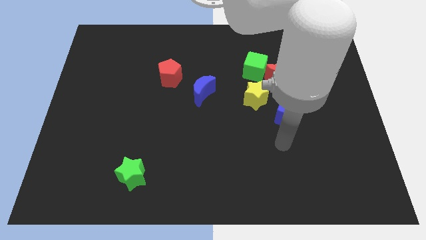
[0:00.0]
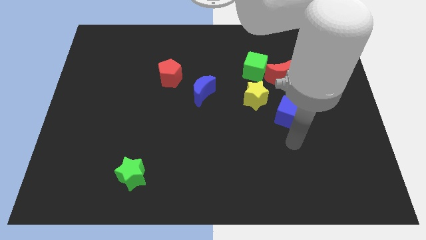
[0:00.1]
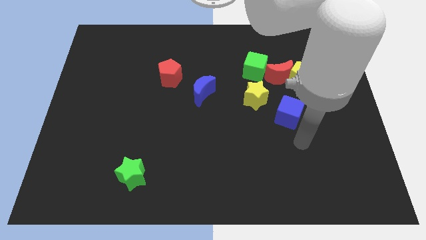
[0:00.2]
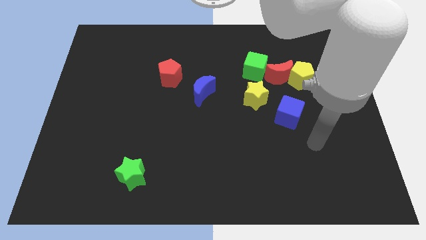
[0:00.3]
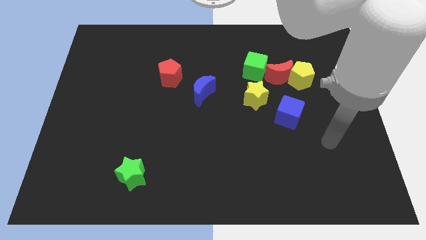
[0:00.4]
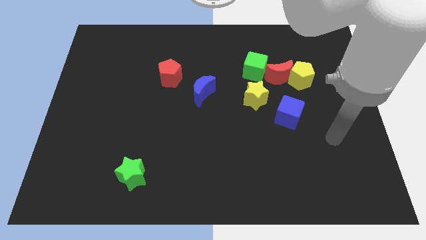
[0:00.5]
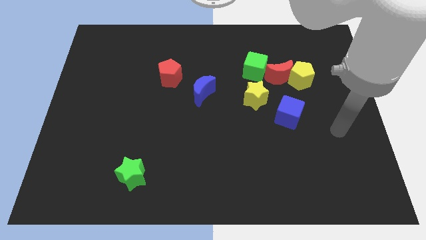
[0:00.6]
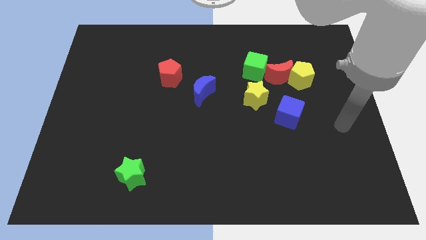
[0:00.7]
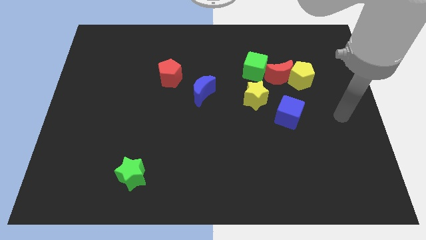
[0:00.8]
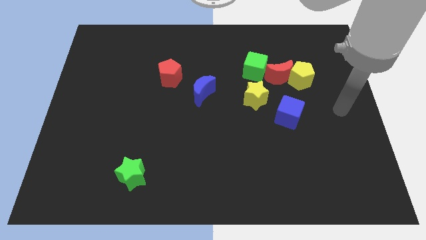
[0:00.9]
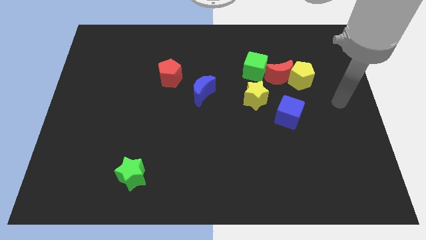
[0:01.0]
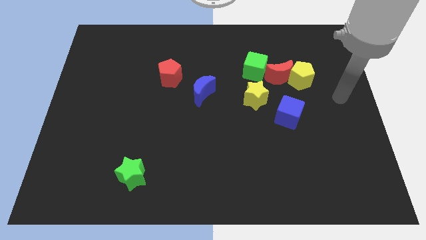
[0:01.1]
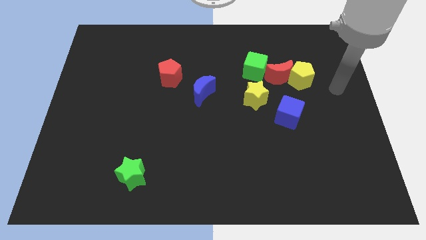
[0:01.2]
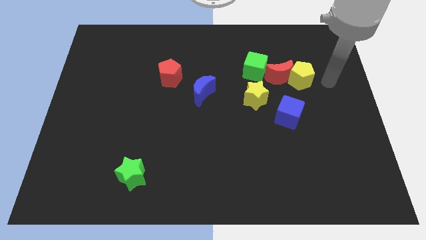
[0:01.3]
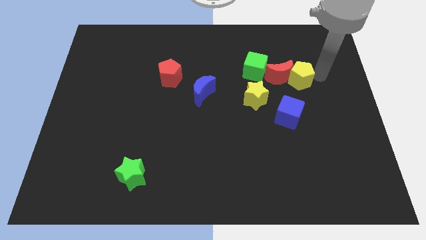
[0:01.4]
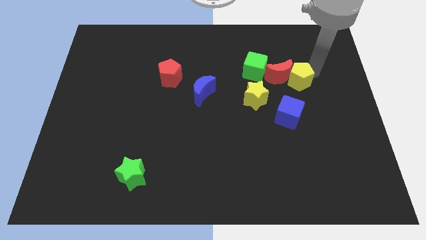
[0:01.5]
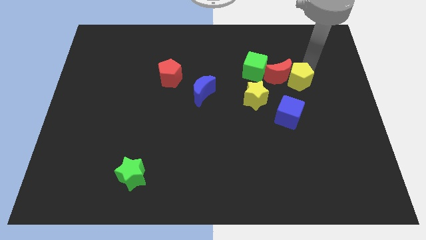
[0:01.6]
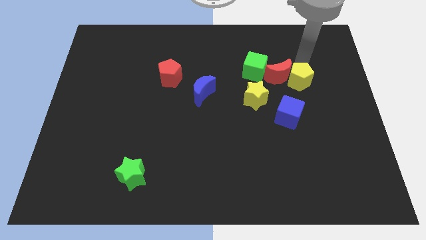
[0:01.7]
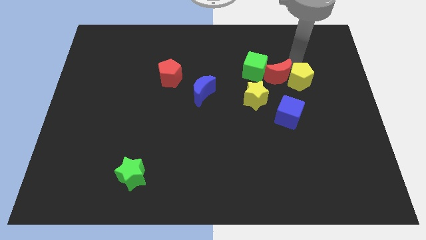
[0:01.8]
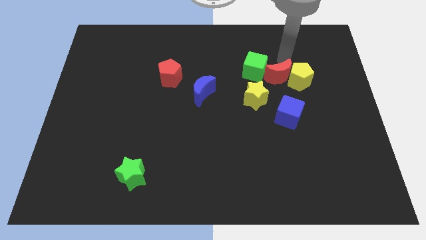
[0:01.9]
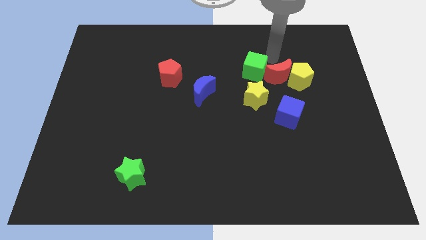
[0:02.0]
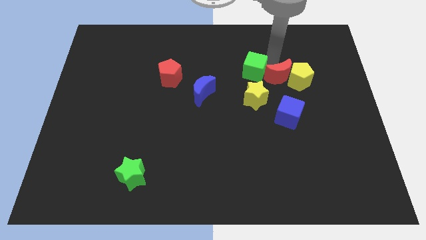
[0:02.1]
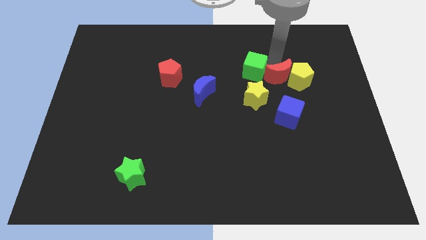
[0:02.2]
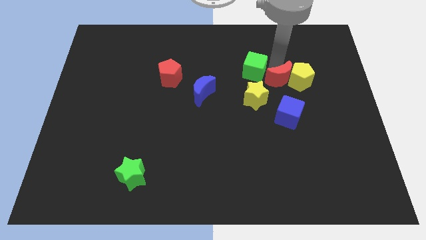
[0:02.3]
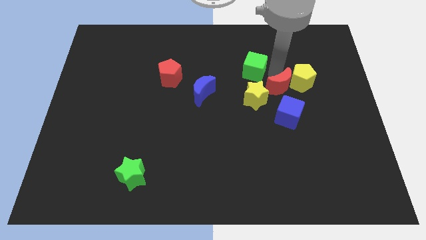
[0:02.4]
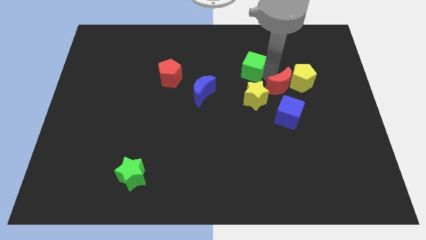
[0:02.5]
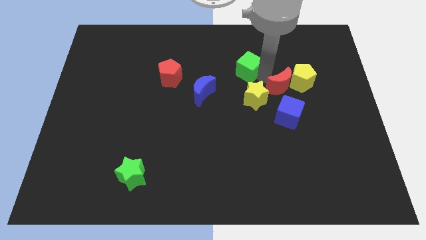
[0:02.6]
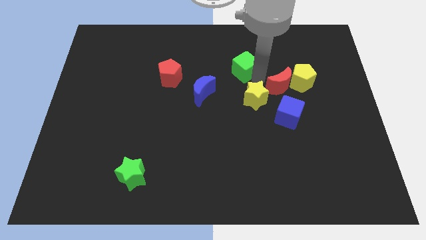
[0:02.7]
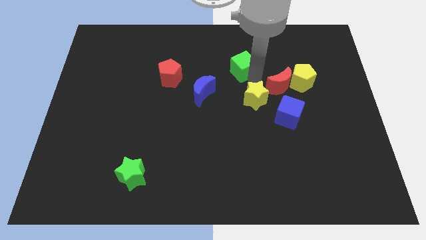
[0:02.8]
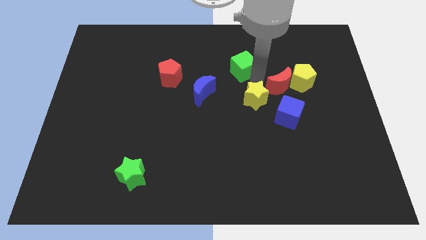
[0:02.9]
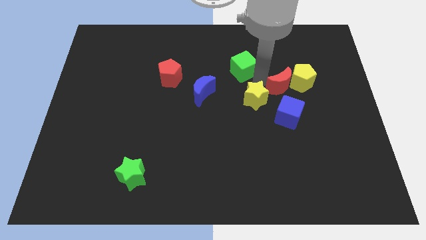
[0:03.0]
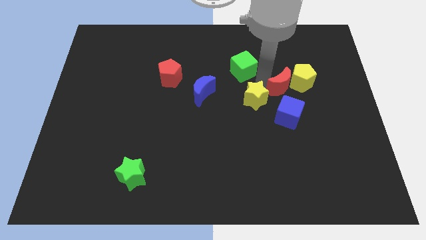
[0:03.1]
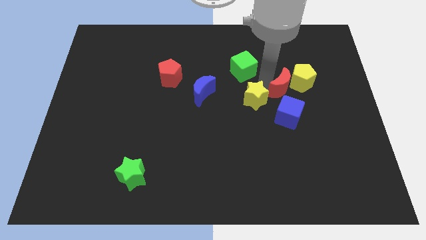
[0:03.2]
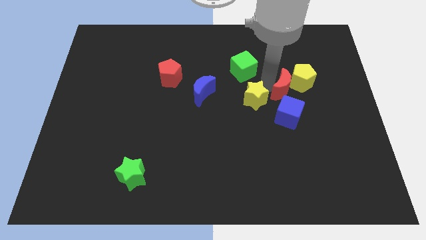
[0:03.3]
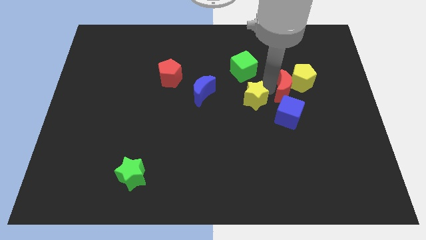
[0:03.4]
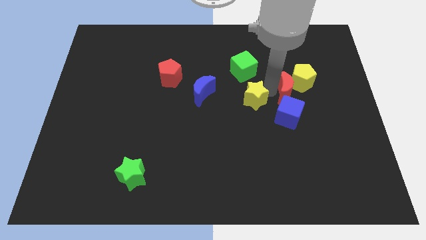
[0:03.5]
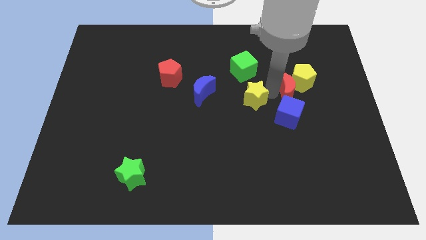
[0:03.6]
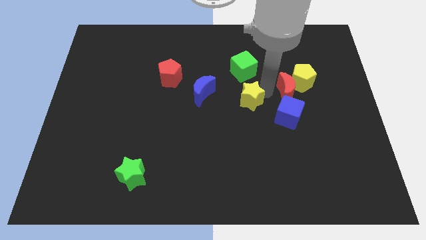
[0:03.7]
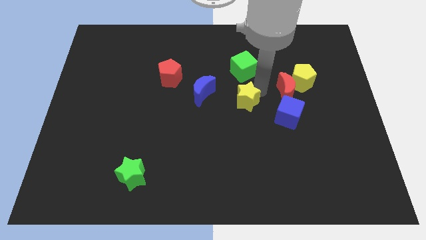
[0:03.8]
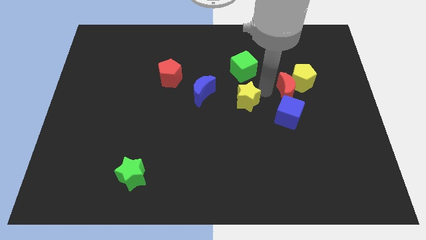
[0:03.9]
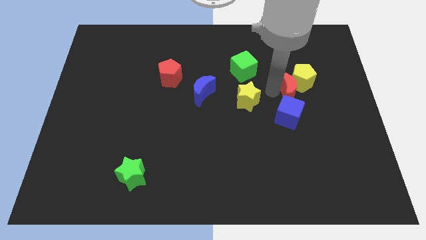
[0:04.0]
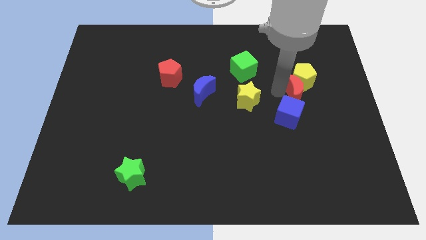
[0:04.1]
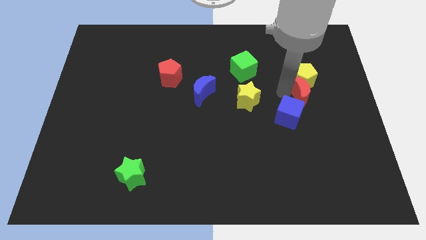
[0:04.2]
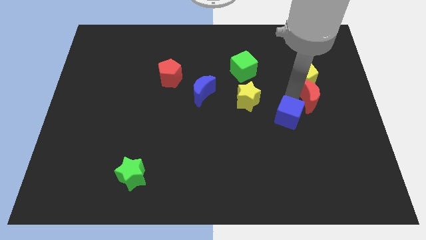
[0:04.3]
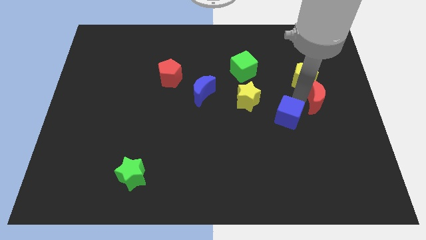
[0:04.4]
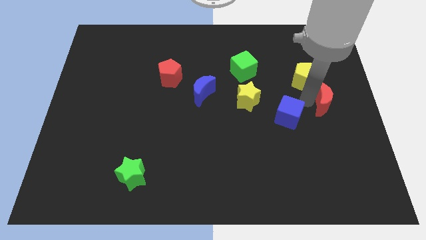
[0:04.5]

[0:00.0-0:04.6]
put the red moon to the right side of the board

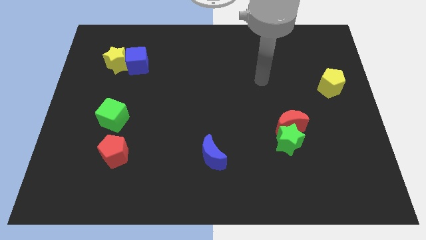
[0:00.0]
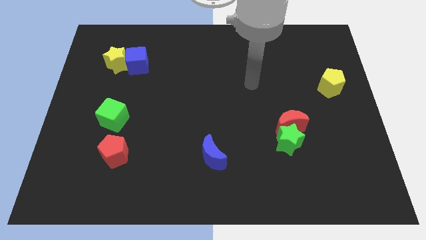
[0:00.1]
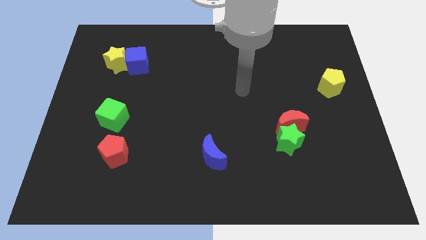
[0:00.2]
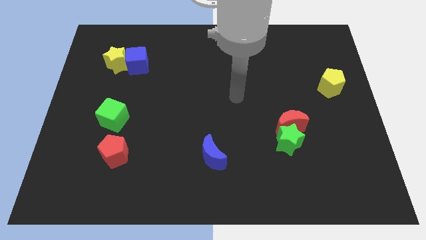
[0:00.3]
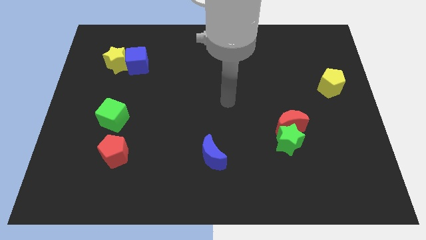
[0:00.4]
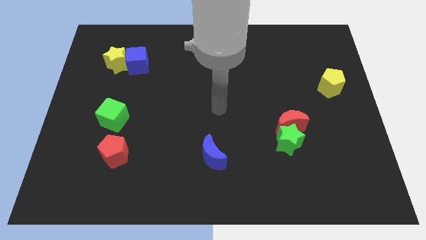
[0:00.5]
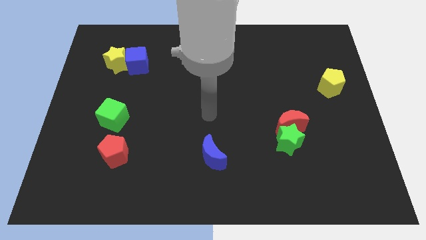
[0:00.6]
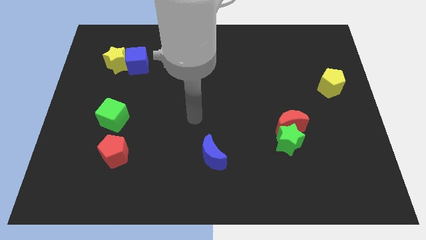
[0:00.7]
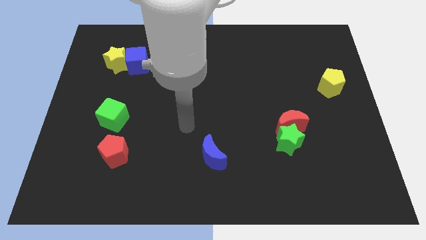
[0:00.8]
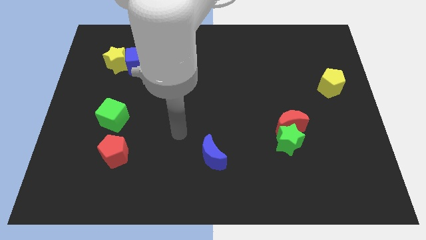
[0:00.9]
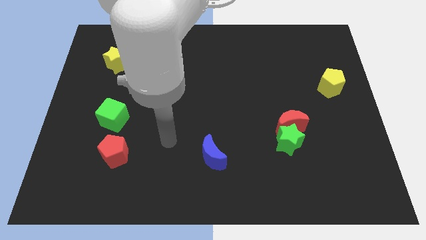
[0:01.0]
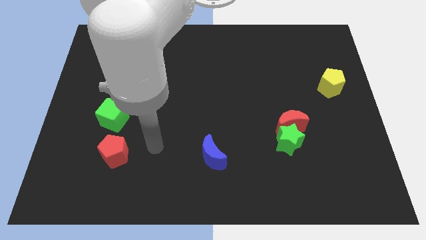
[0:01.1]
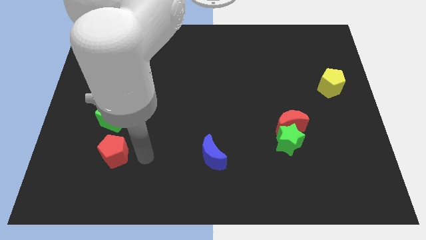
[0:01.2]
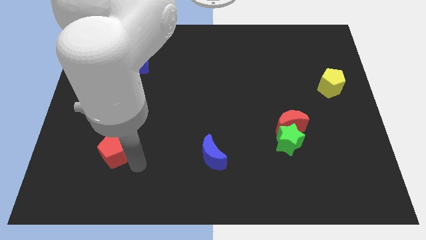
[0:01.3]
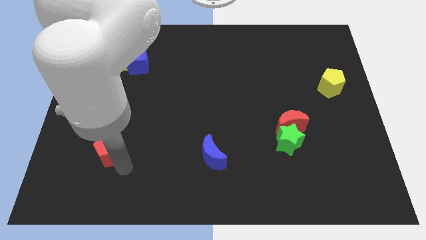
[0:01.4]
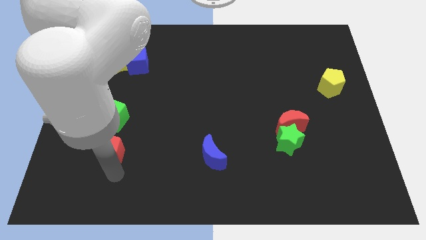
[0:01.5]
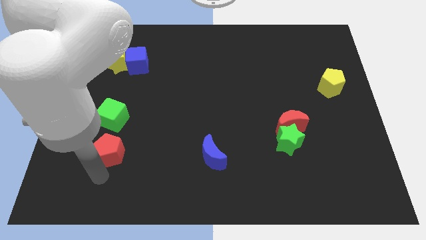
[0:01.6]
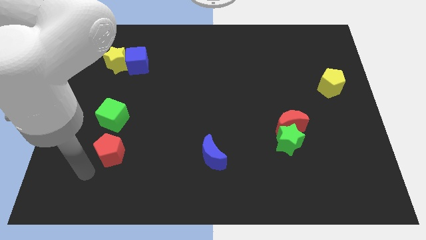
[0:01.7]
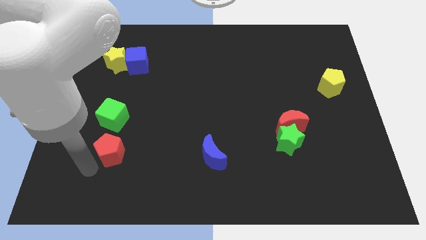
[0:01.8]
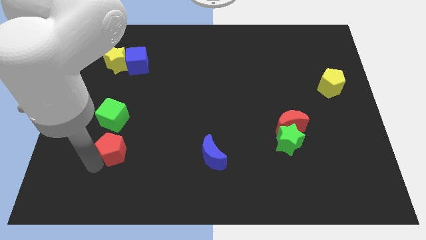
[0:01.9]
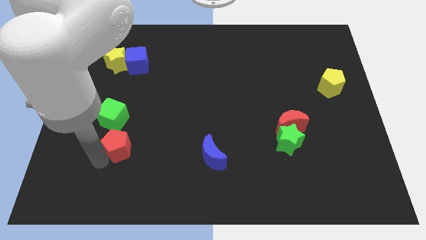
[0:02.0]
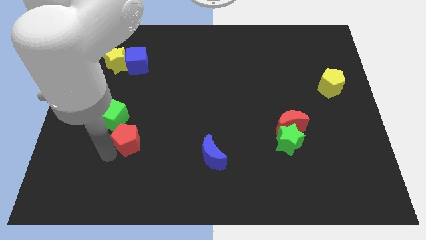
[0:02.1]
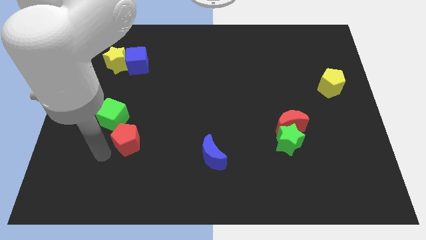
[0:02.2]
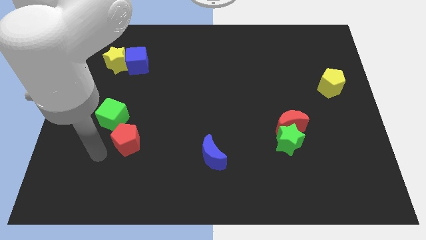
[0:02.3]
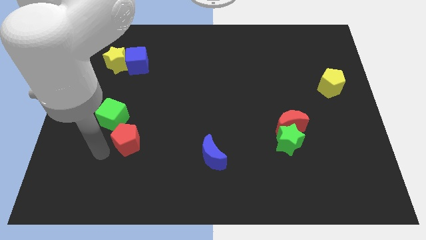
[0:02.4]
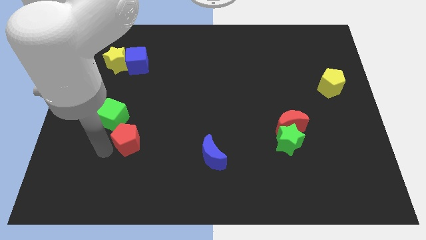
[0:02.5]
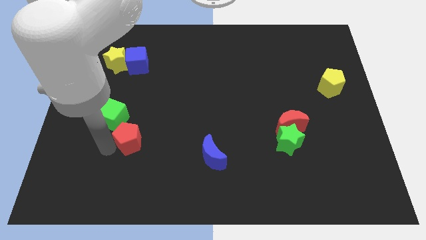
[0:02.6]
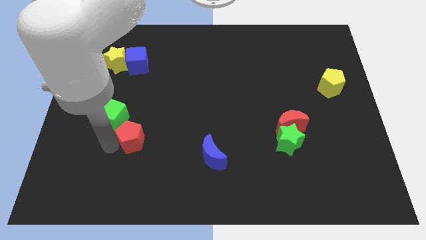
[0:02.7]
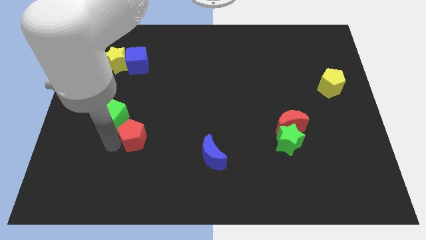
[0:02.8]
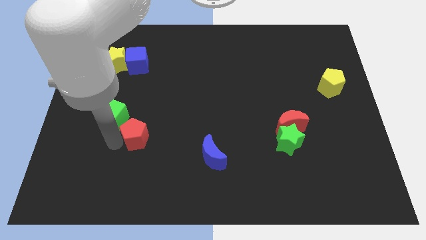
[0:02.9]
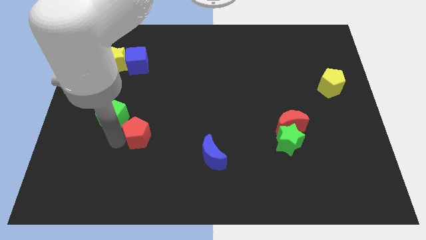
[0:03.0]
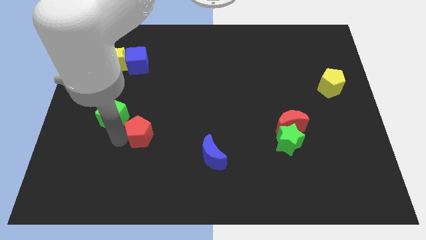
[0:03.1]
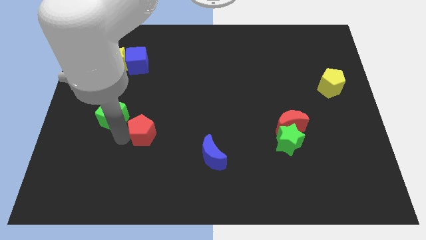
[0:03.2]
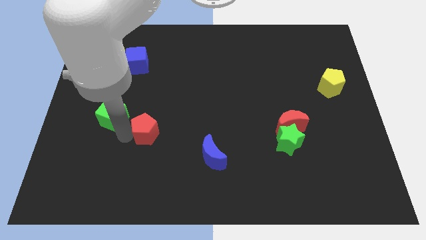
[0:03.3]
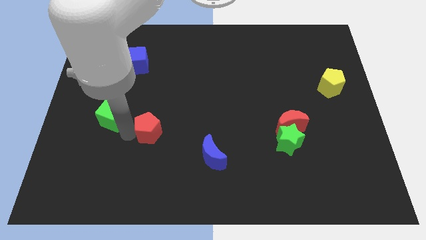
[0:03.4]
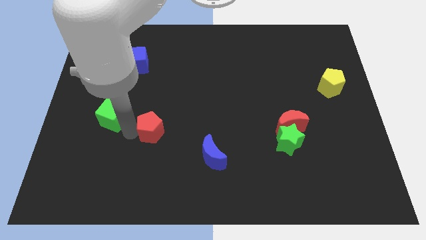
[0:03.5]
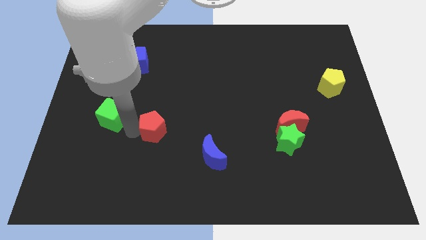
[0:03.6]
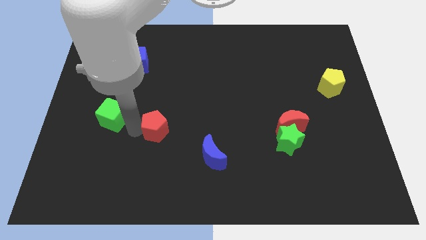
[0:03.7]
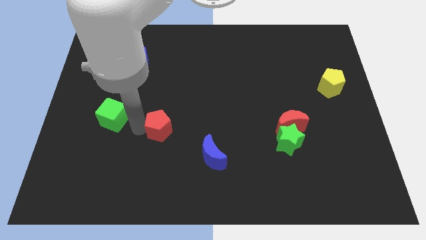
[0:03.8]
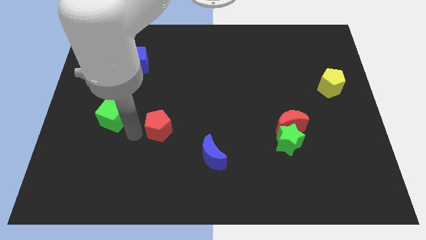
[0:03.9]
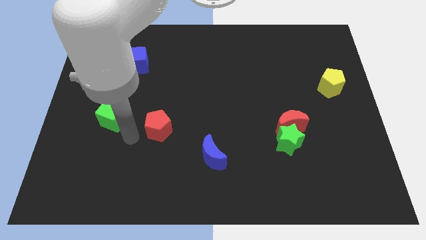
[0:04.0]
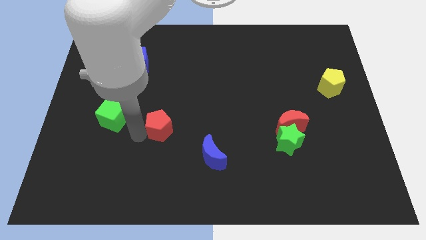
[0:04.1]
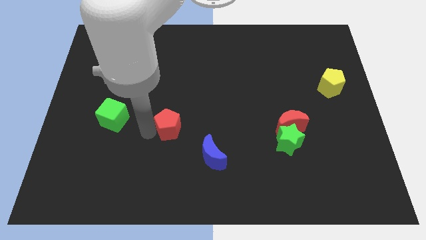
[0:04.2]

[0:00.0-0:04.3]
push the red pentagon to the middle of the board
